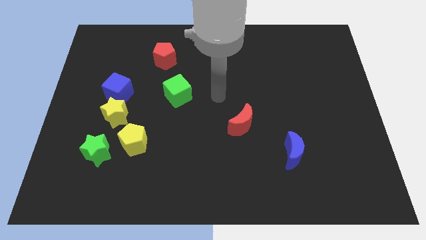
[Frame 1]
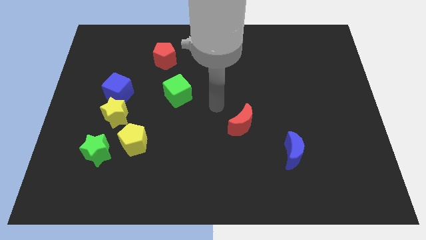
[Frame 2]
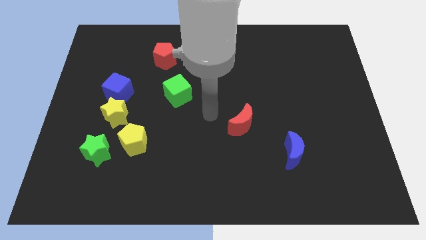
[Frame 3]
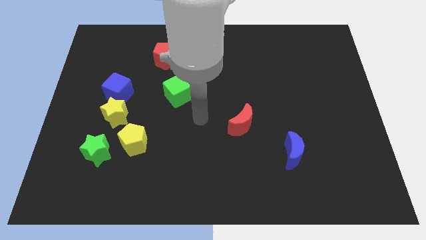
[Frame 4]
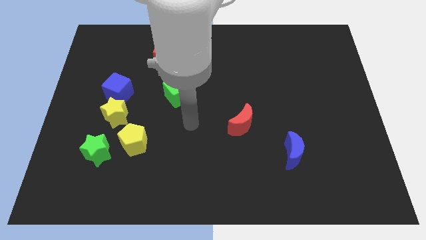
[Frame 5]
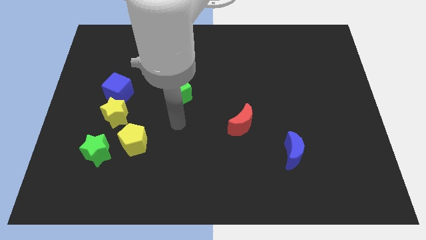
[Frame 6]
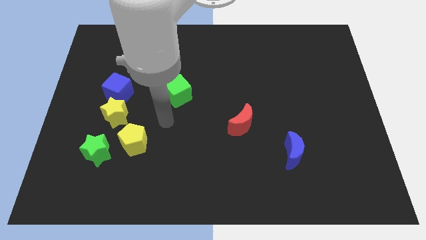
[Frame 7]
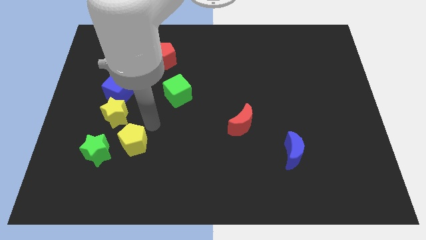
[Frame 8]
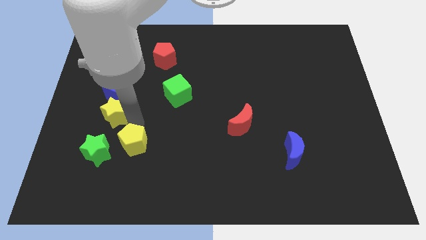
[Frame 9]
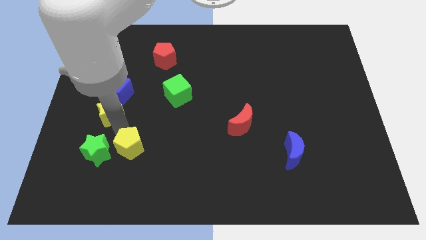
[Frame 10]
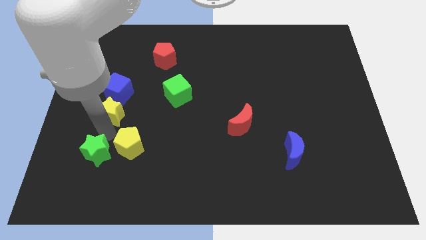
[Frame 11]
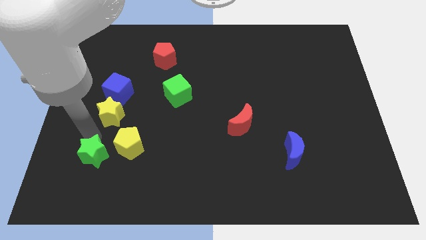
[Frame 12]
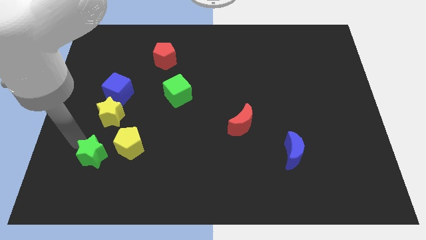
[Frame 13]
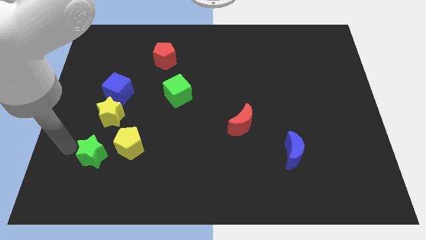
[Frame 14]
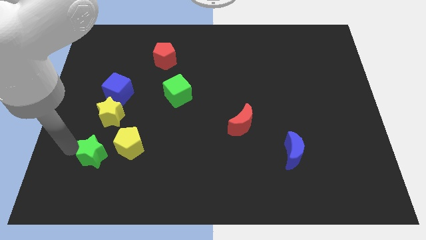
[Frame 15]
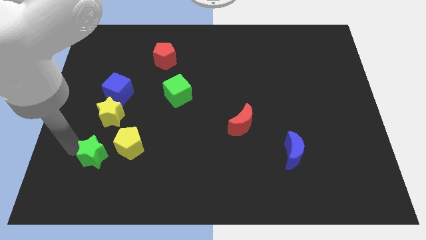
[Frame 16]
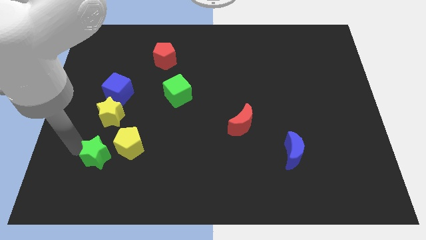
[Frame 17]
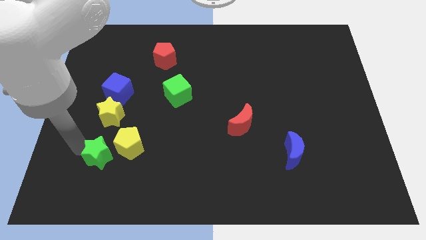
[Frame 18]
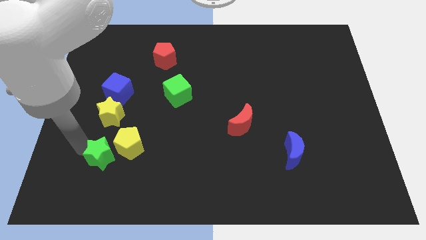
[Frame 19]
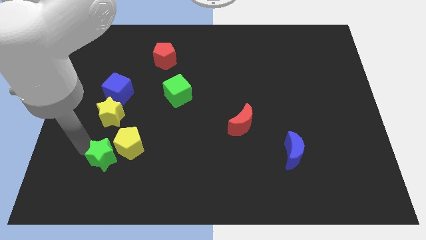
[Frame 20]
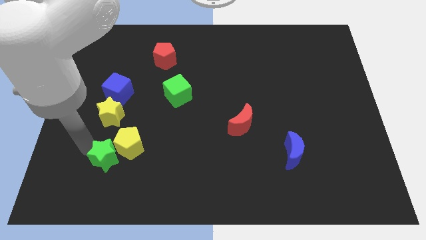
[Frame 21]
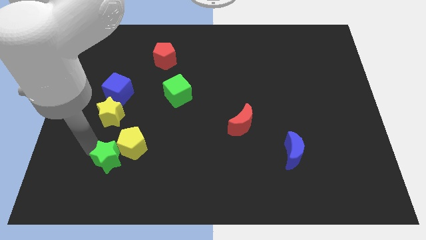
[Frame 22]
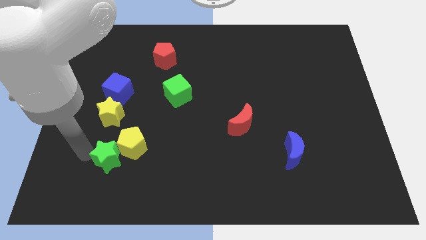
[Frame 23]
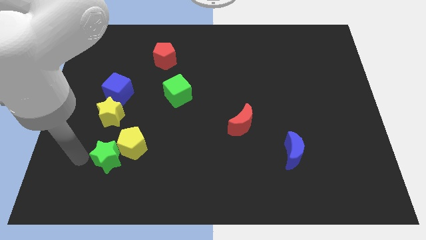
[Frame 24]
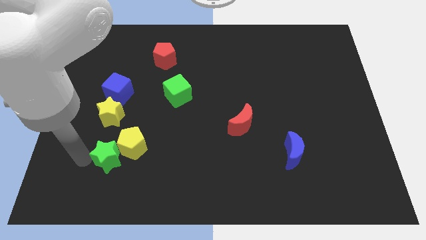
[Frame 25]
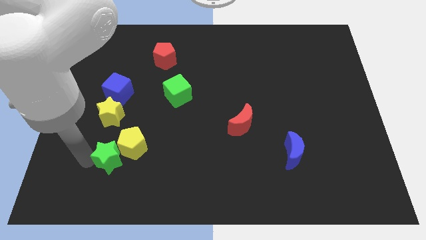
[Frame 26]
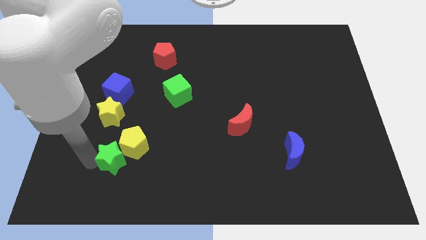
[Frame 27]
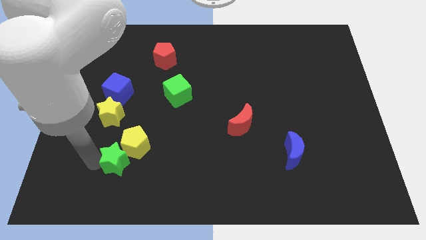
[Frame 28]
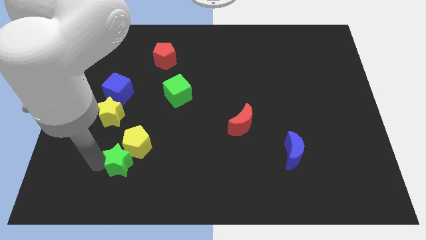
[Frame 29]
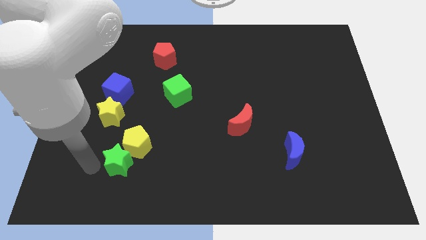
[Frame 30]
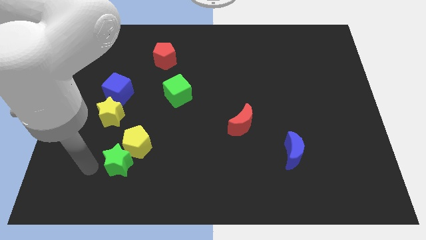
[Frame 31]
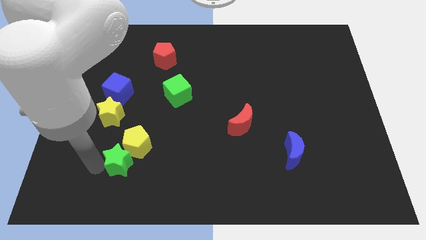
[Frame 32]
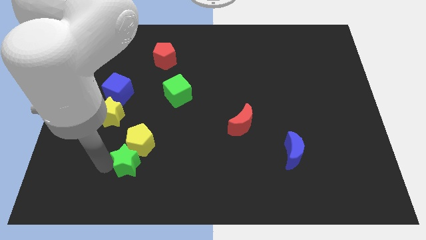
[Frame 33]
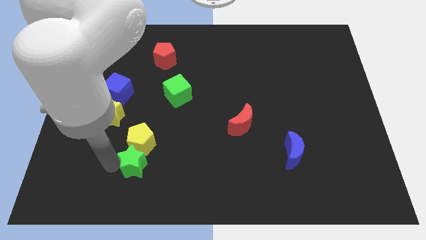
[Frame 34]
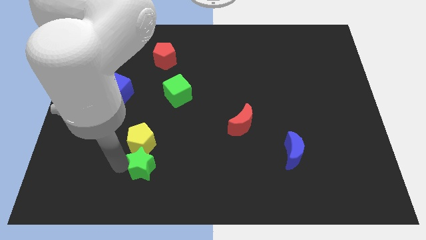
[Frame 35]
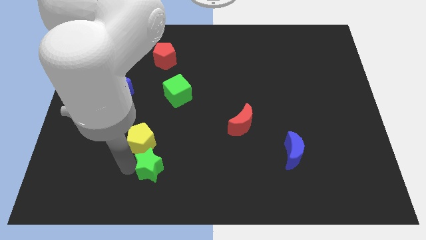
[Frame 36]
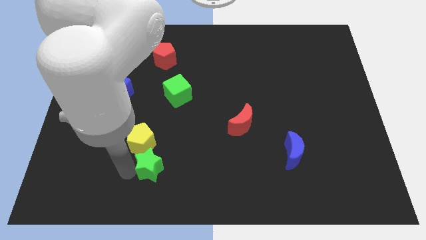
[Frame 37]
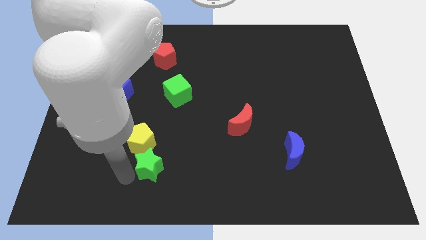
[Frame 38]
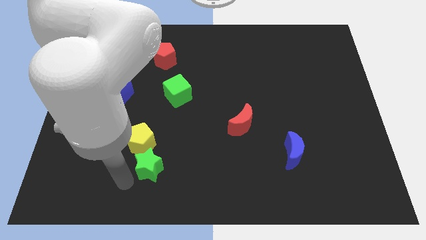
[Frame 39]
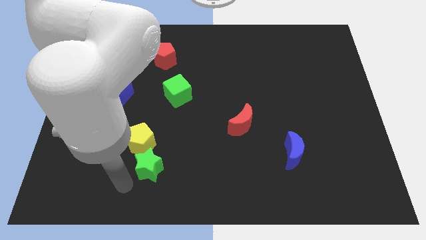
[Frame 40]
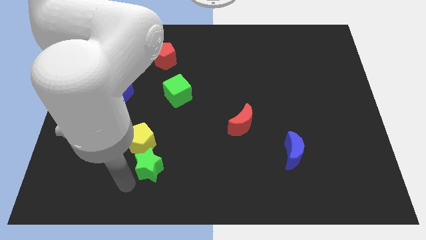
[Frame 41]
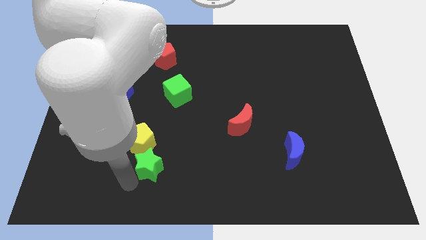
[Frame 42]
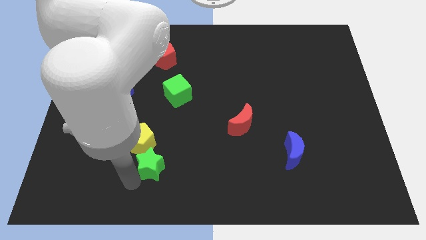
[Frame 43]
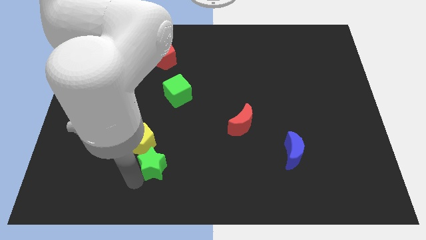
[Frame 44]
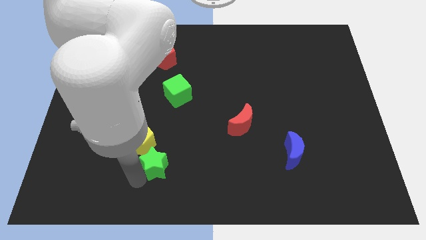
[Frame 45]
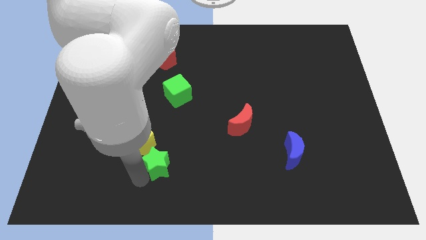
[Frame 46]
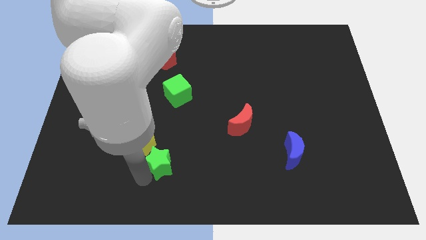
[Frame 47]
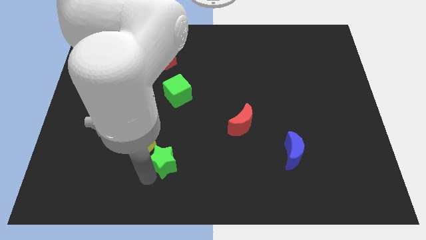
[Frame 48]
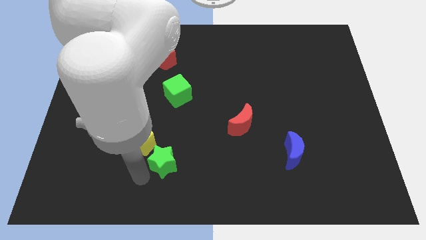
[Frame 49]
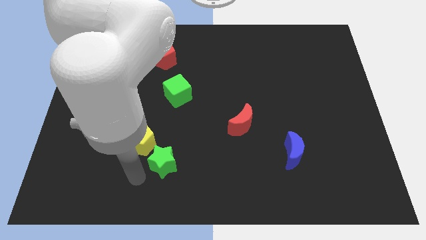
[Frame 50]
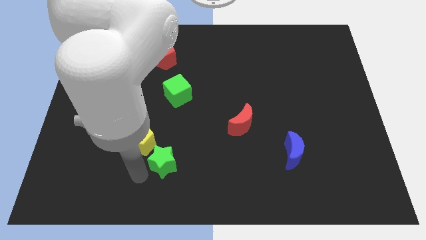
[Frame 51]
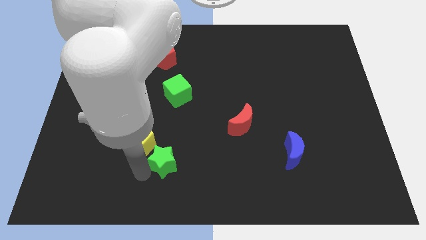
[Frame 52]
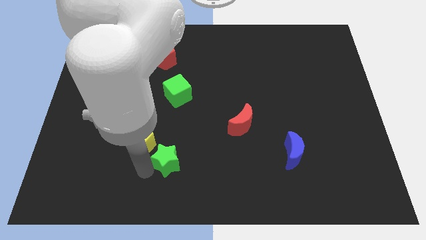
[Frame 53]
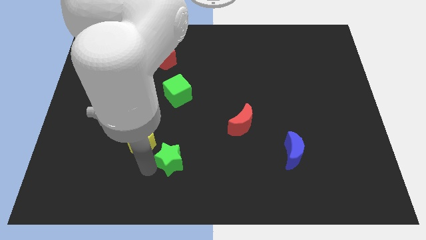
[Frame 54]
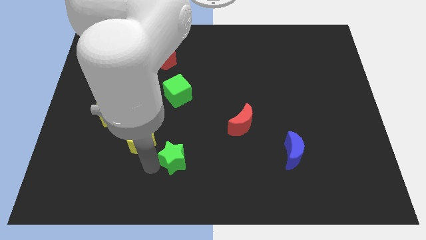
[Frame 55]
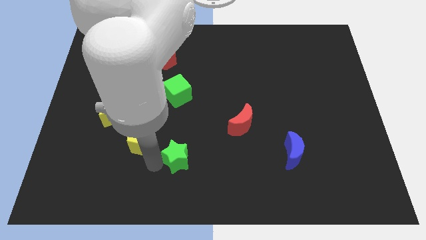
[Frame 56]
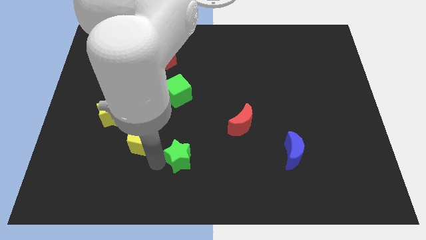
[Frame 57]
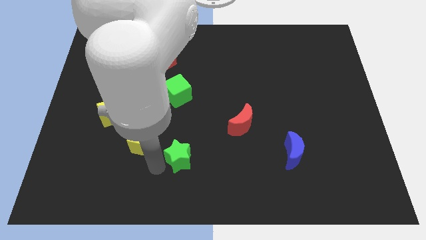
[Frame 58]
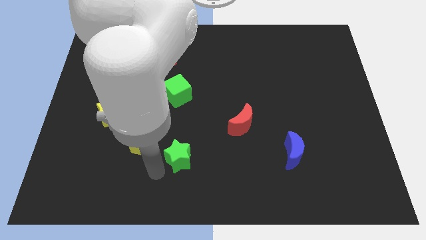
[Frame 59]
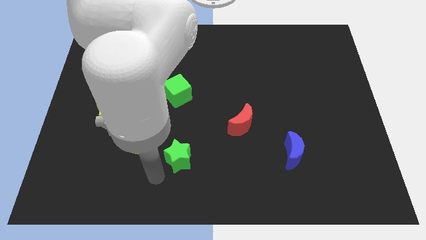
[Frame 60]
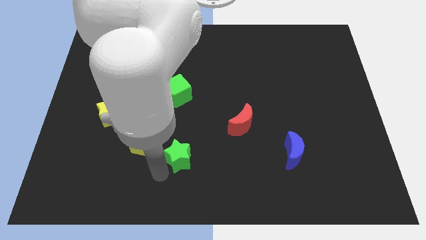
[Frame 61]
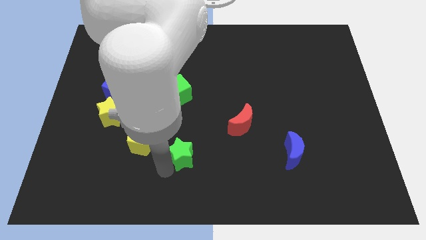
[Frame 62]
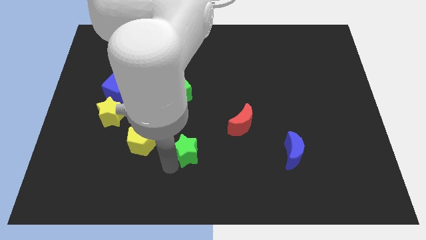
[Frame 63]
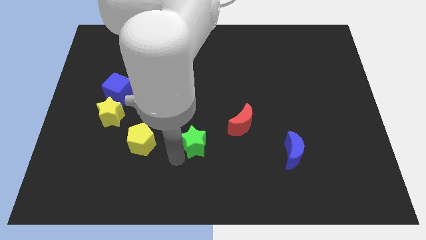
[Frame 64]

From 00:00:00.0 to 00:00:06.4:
push the green star to the right

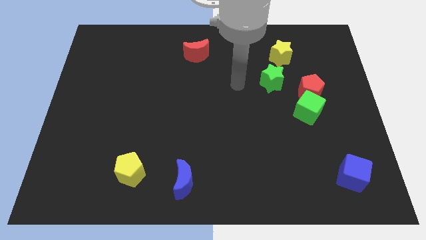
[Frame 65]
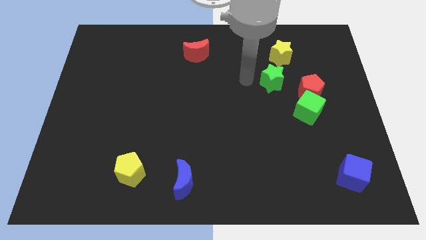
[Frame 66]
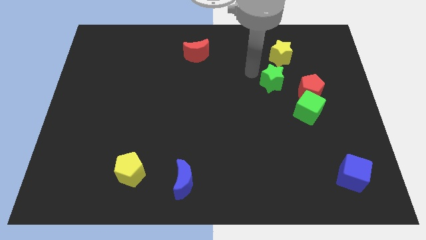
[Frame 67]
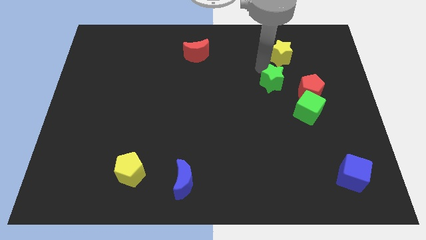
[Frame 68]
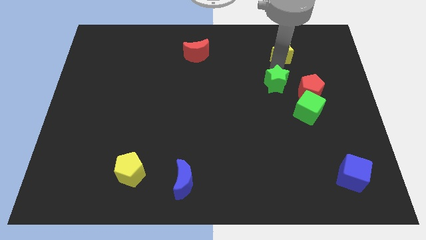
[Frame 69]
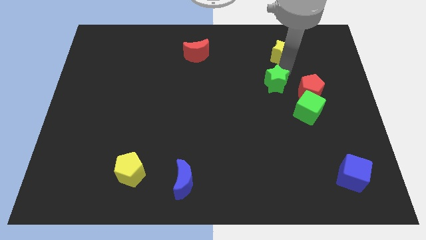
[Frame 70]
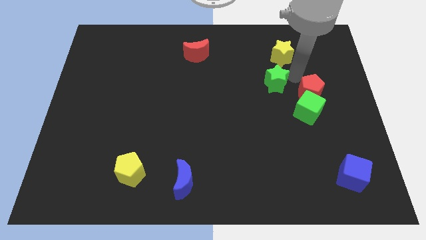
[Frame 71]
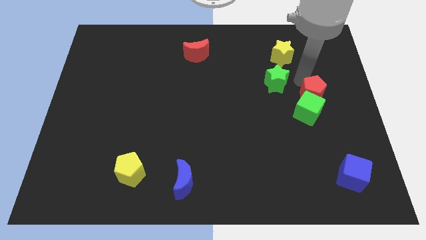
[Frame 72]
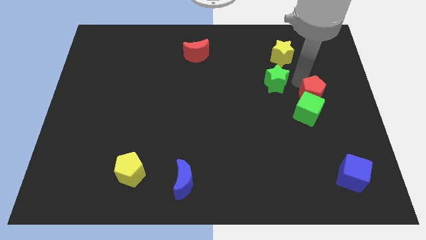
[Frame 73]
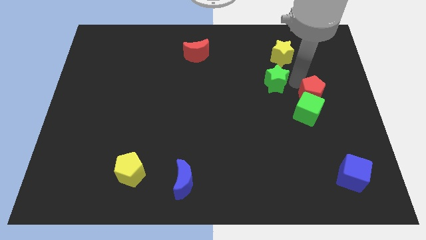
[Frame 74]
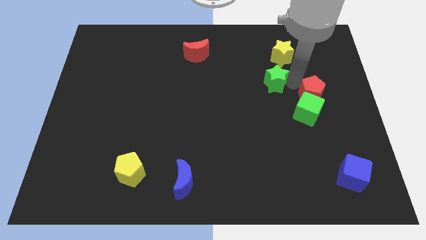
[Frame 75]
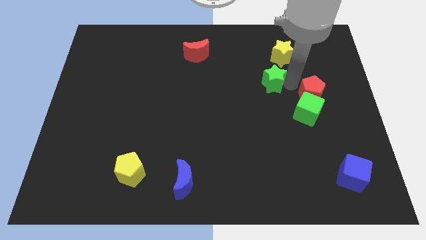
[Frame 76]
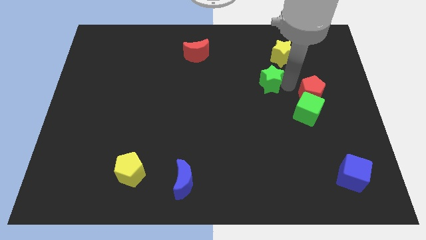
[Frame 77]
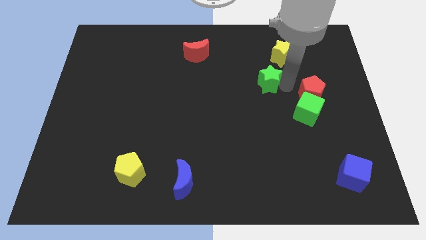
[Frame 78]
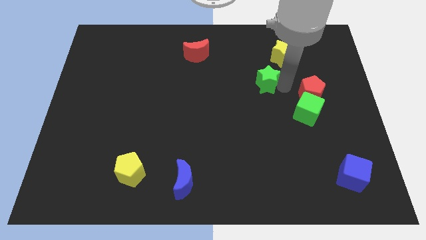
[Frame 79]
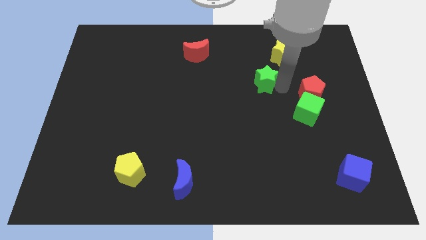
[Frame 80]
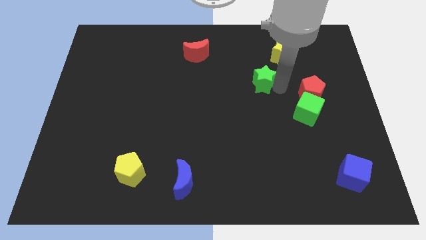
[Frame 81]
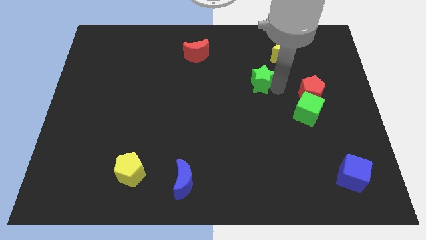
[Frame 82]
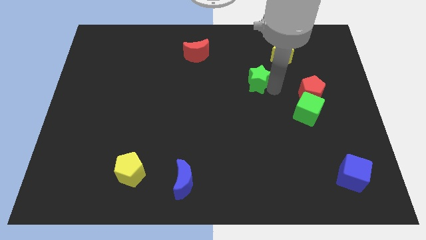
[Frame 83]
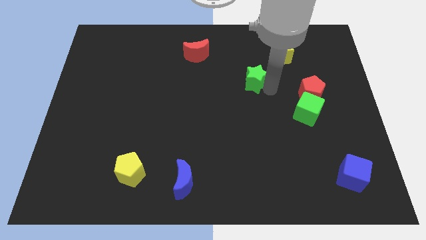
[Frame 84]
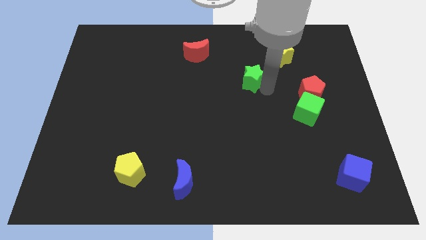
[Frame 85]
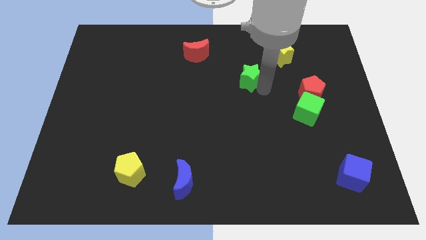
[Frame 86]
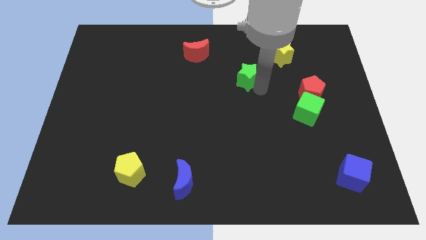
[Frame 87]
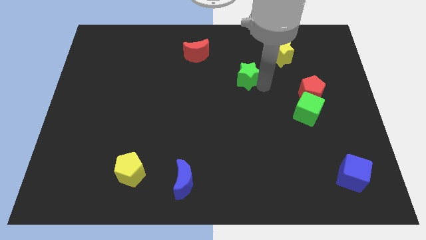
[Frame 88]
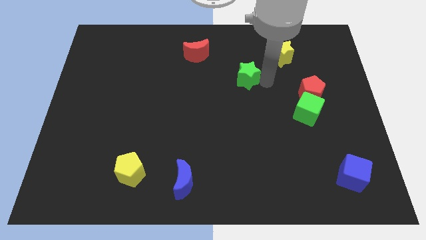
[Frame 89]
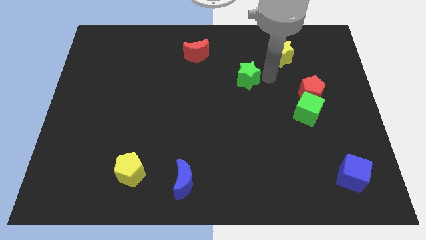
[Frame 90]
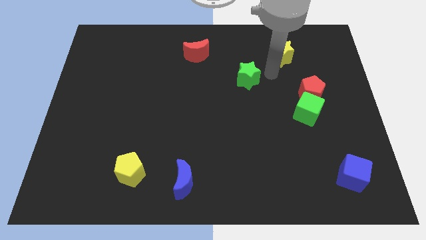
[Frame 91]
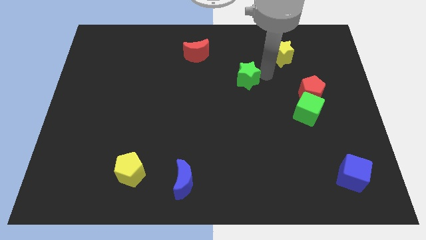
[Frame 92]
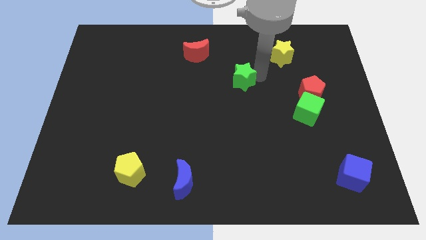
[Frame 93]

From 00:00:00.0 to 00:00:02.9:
push the green star a bit to the left
